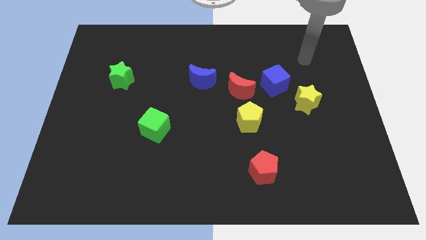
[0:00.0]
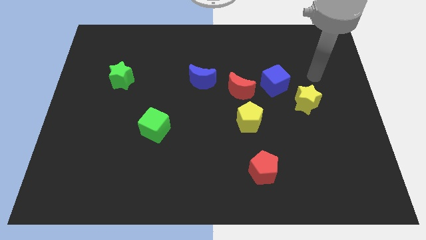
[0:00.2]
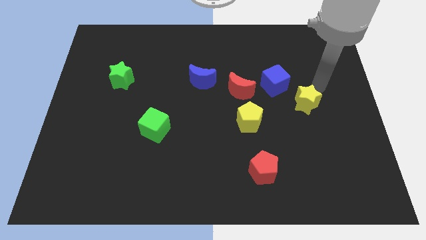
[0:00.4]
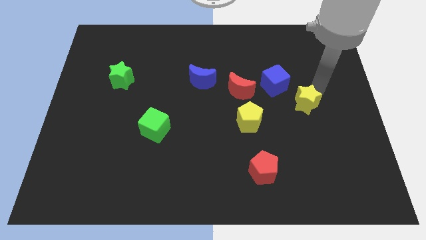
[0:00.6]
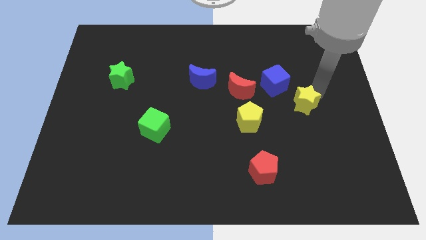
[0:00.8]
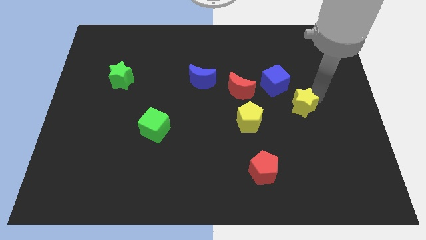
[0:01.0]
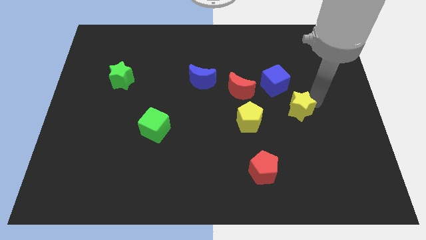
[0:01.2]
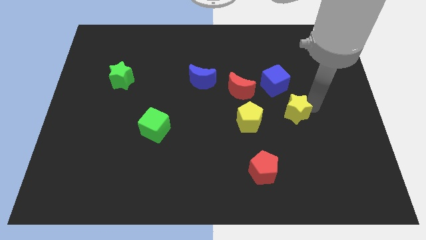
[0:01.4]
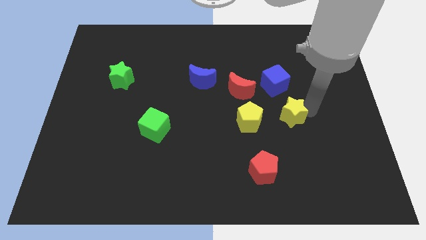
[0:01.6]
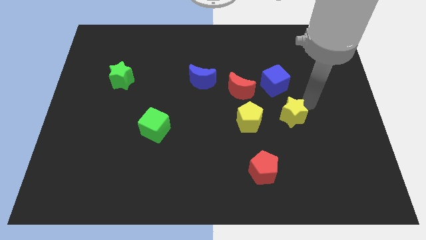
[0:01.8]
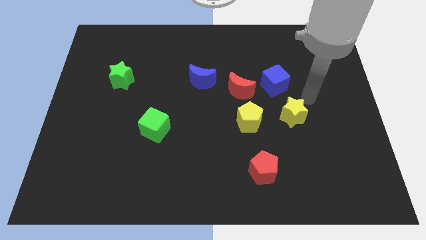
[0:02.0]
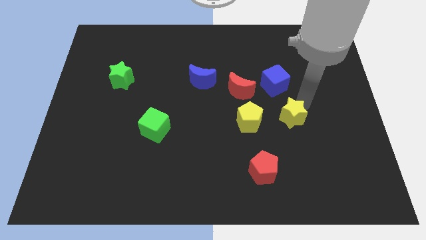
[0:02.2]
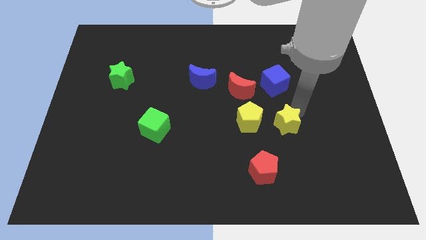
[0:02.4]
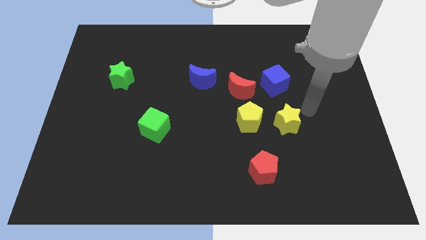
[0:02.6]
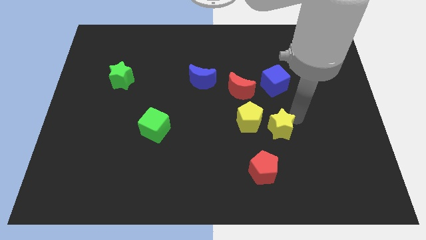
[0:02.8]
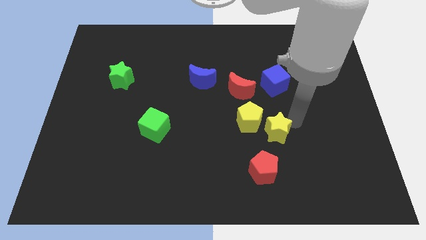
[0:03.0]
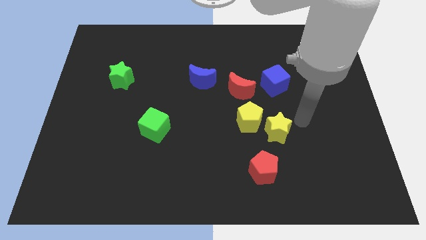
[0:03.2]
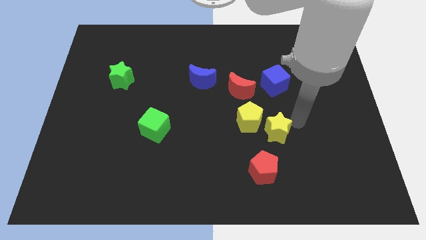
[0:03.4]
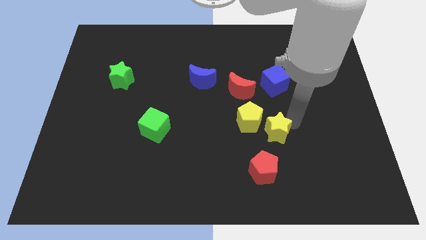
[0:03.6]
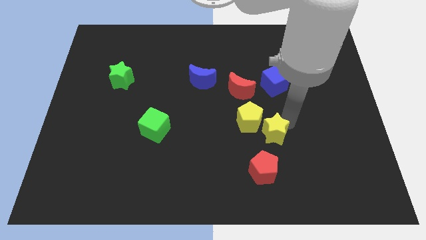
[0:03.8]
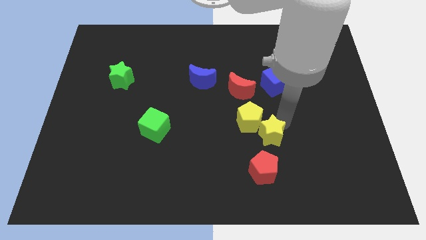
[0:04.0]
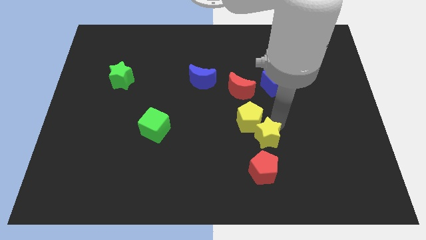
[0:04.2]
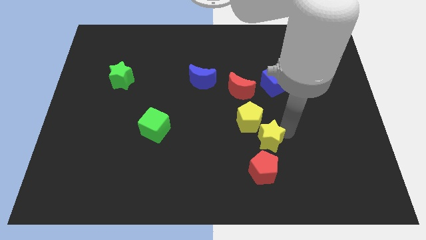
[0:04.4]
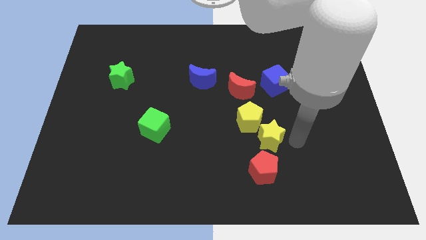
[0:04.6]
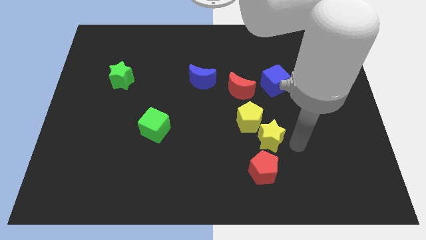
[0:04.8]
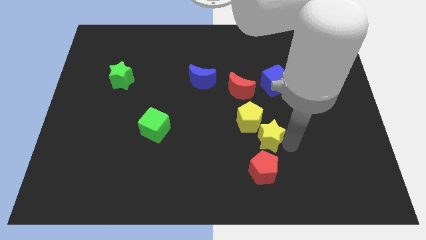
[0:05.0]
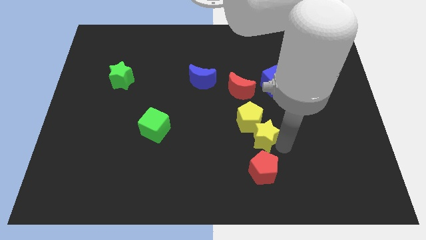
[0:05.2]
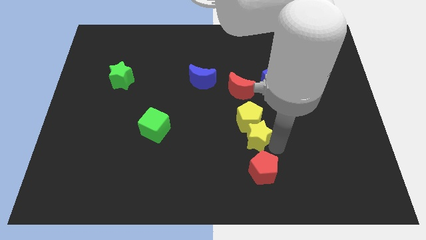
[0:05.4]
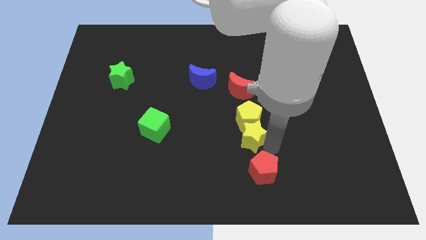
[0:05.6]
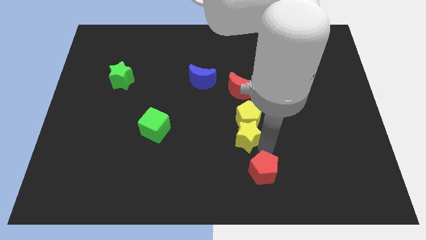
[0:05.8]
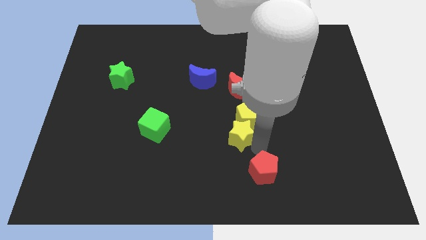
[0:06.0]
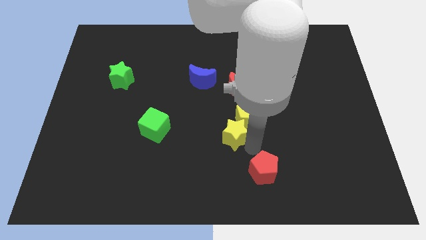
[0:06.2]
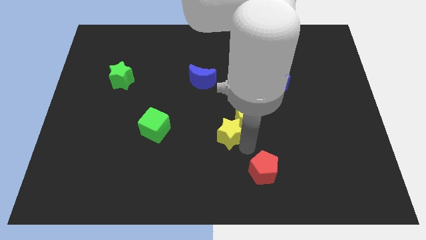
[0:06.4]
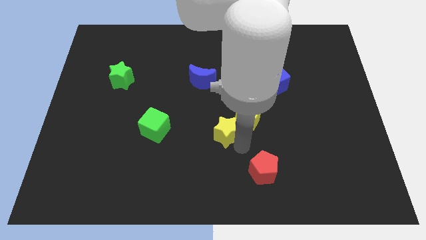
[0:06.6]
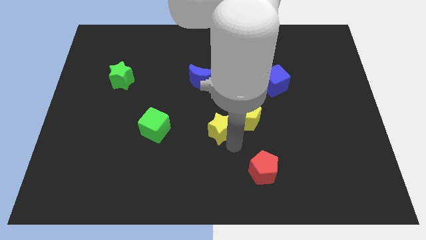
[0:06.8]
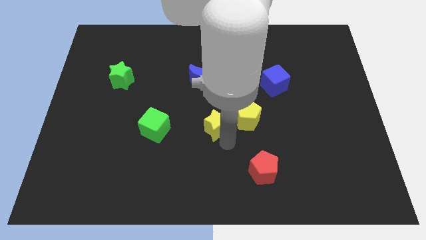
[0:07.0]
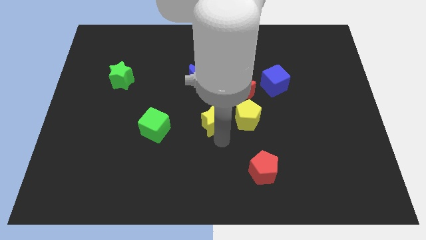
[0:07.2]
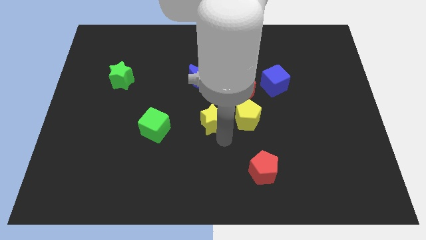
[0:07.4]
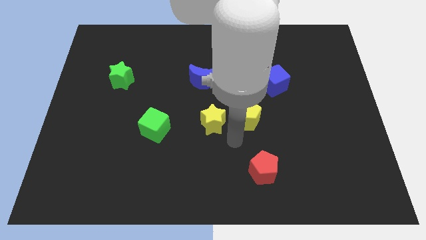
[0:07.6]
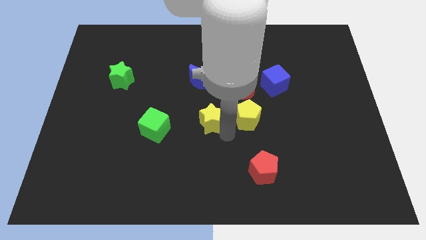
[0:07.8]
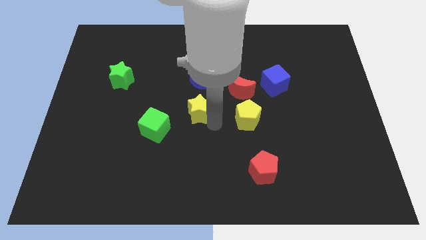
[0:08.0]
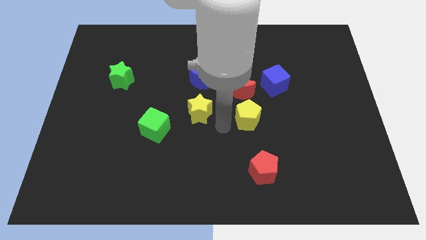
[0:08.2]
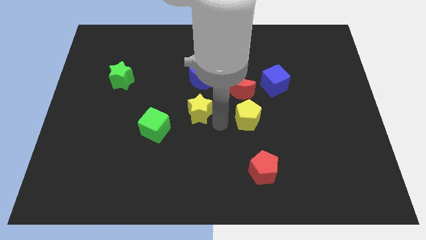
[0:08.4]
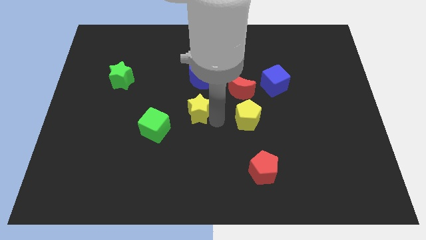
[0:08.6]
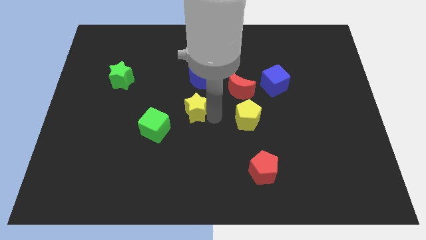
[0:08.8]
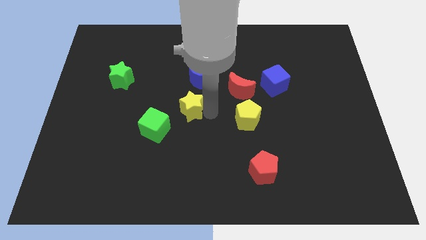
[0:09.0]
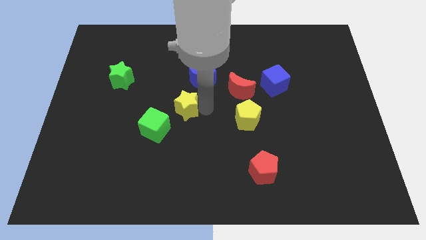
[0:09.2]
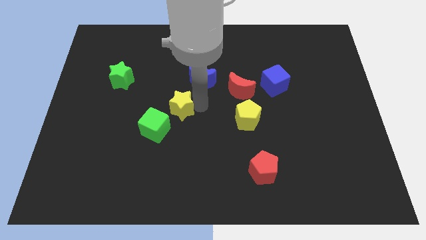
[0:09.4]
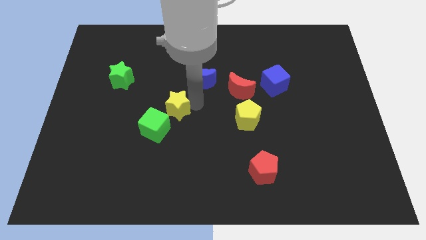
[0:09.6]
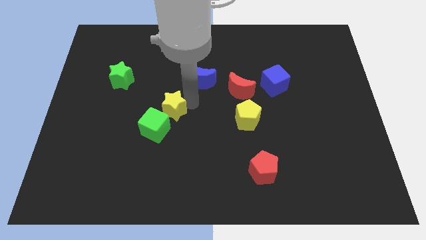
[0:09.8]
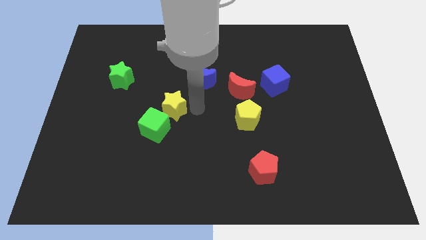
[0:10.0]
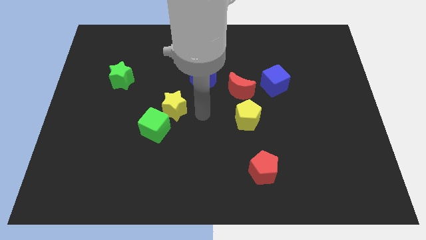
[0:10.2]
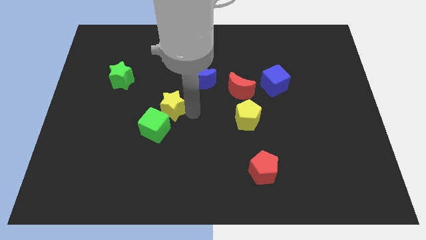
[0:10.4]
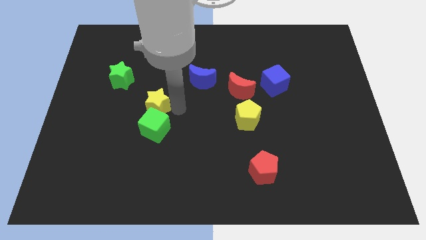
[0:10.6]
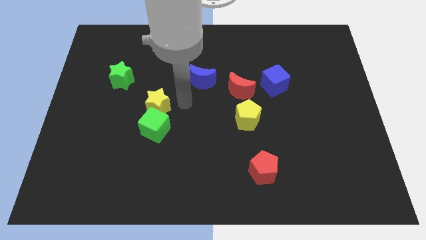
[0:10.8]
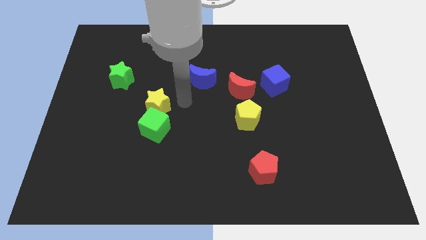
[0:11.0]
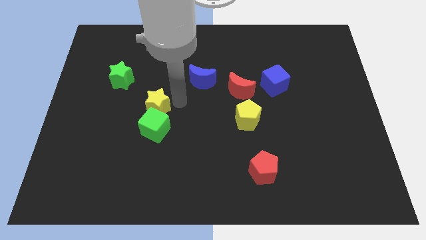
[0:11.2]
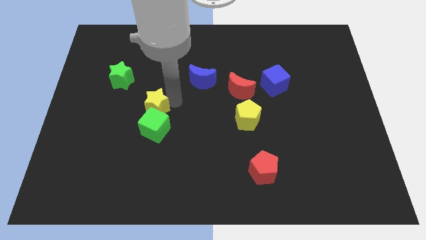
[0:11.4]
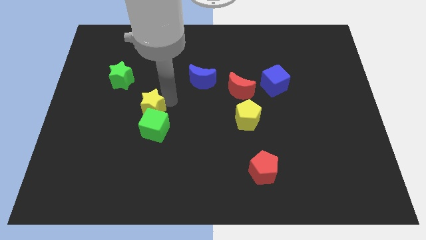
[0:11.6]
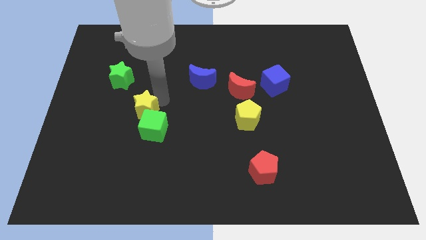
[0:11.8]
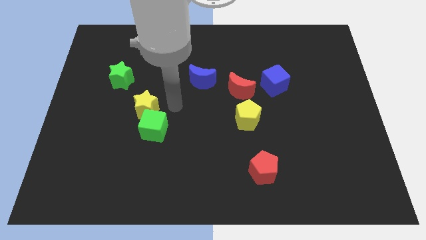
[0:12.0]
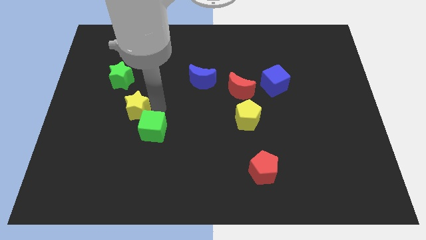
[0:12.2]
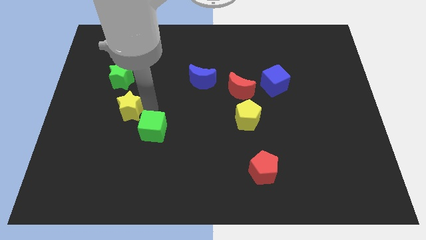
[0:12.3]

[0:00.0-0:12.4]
slide the yellow star below the green star
